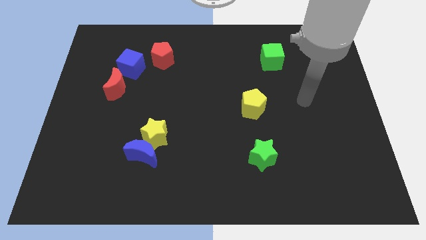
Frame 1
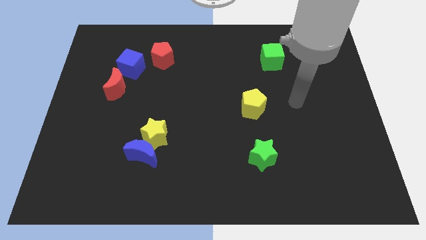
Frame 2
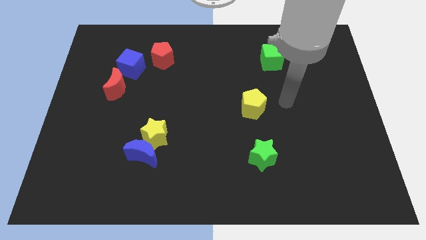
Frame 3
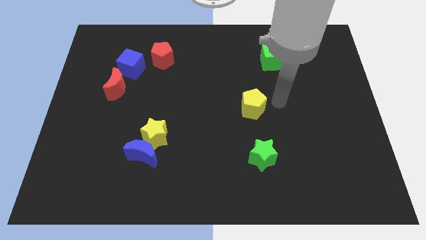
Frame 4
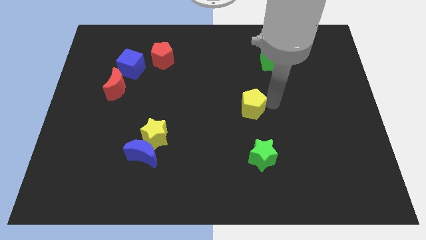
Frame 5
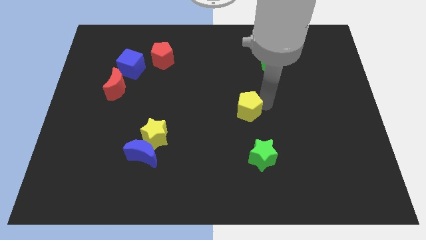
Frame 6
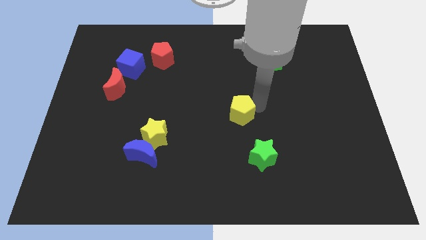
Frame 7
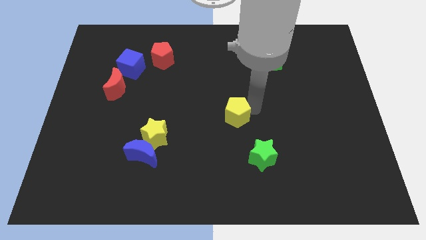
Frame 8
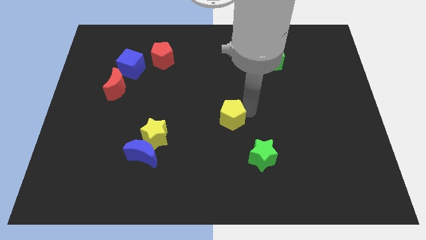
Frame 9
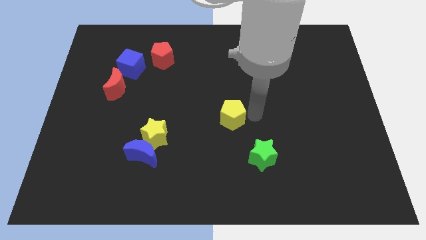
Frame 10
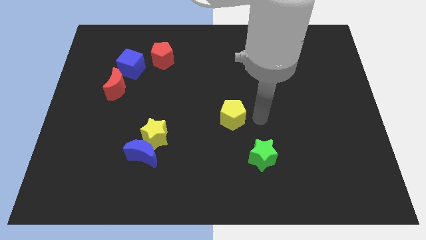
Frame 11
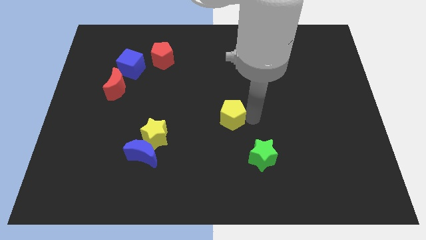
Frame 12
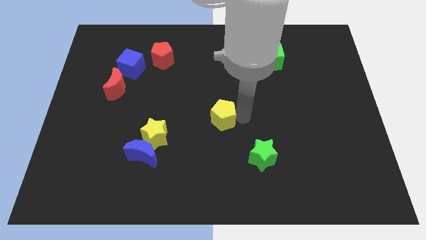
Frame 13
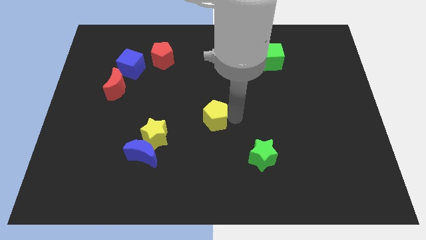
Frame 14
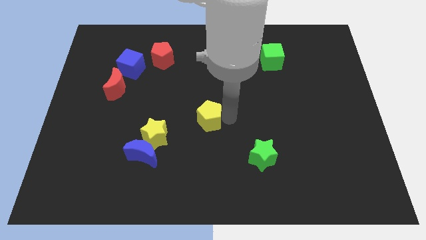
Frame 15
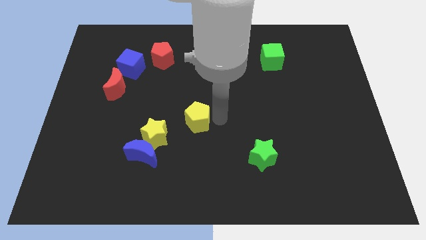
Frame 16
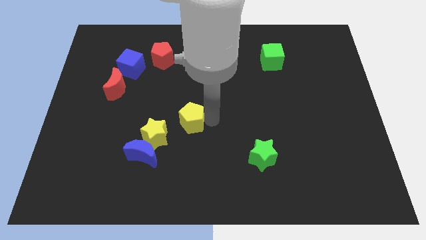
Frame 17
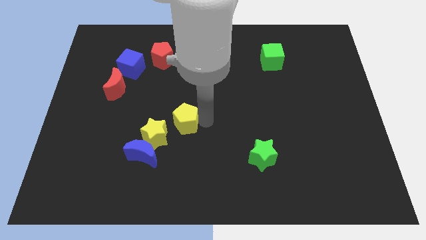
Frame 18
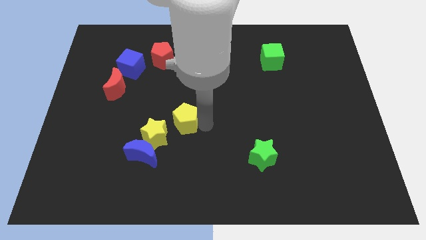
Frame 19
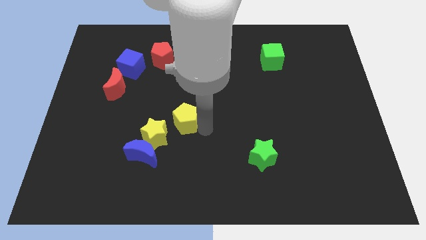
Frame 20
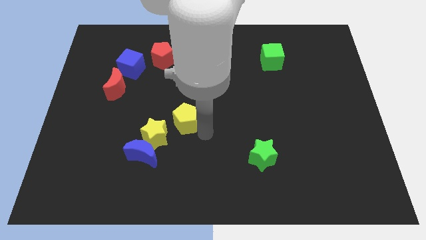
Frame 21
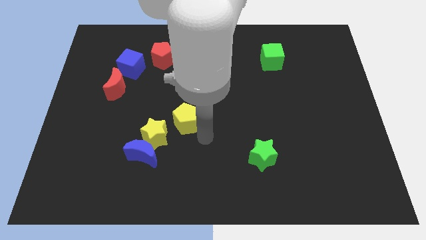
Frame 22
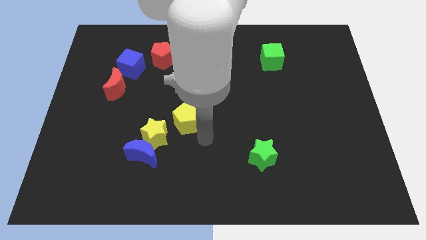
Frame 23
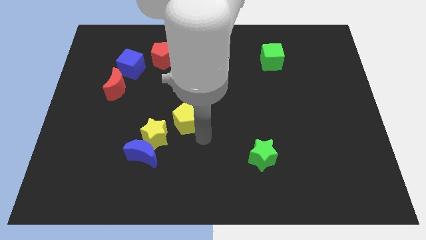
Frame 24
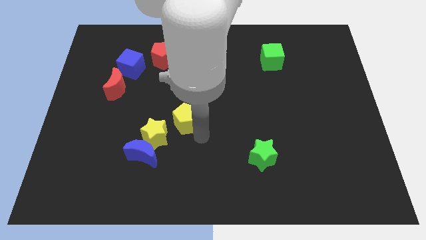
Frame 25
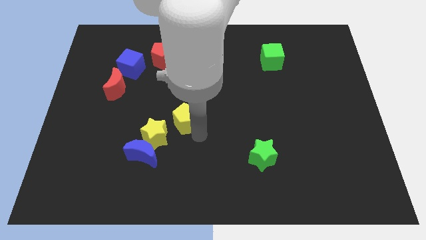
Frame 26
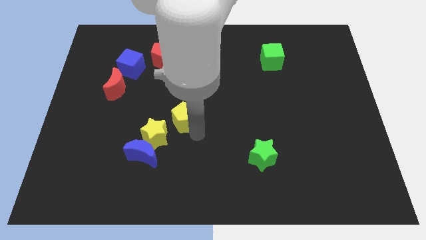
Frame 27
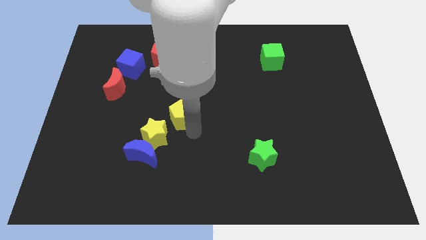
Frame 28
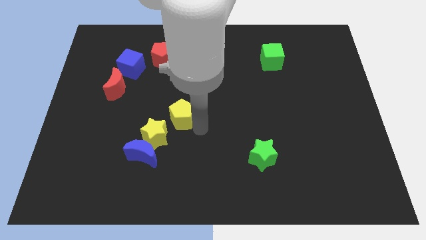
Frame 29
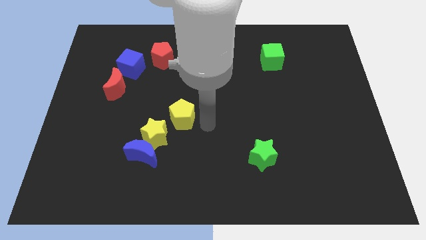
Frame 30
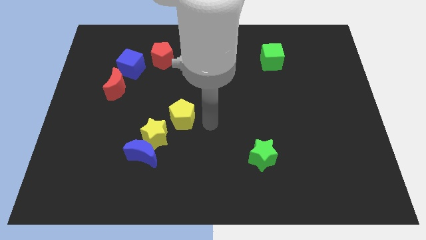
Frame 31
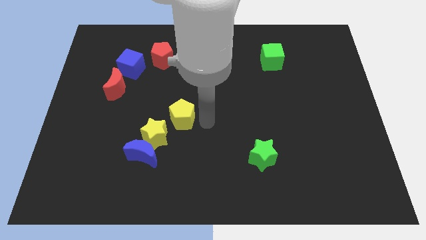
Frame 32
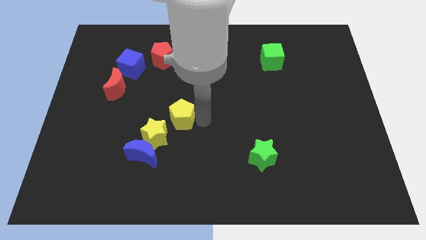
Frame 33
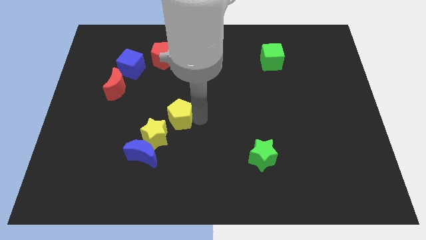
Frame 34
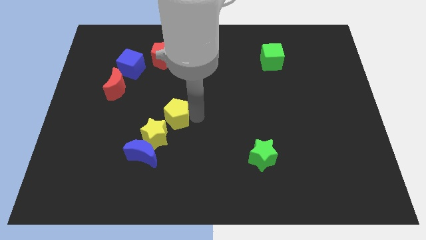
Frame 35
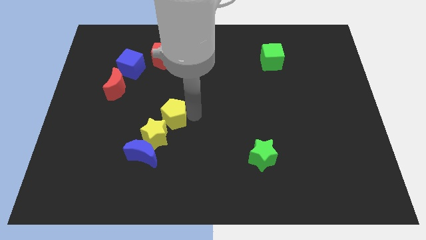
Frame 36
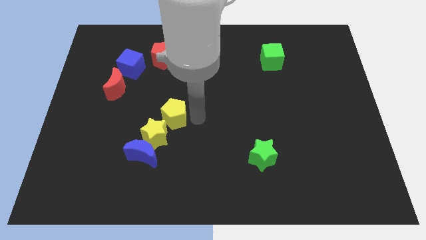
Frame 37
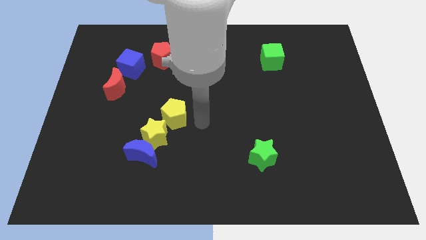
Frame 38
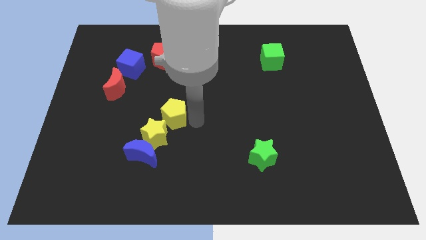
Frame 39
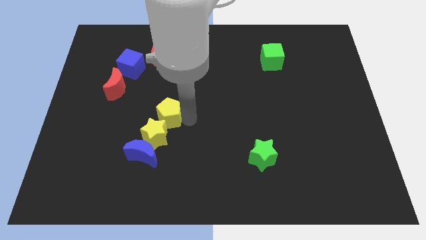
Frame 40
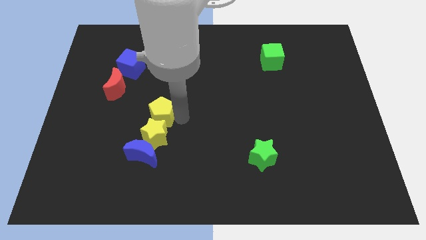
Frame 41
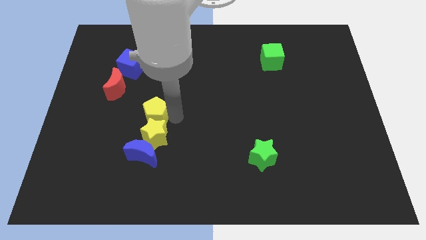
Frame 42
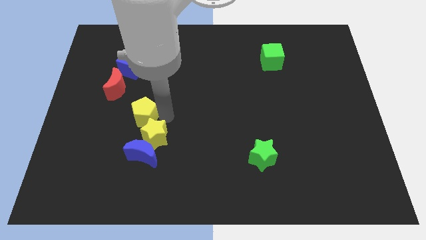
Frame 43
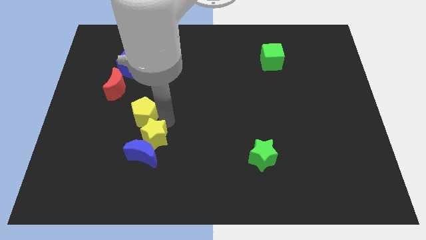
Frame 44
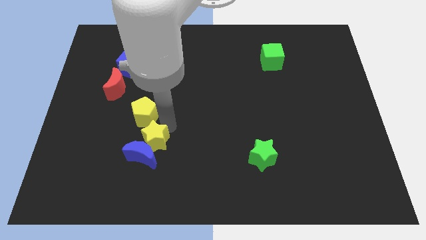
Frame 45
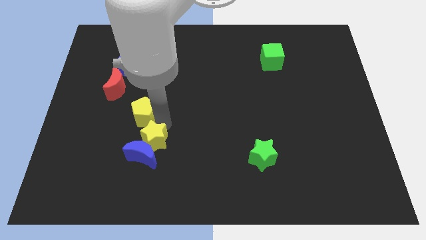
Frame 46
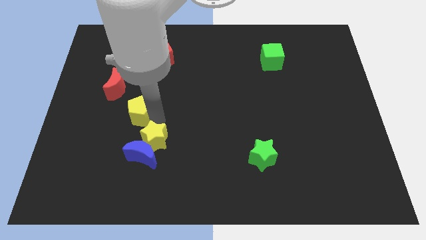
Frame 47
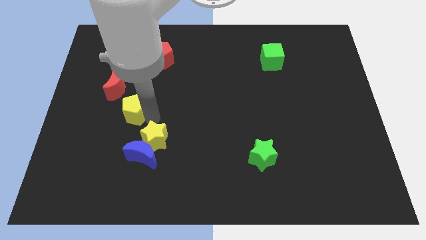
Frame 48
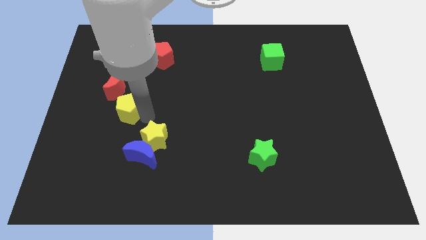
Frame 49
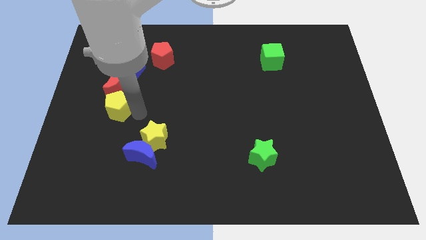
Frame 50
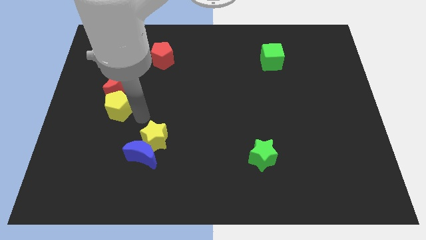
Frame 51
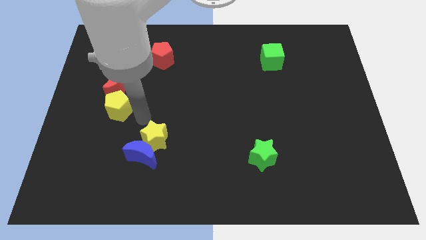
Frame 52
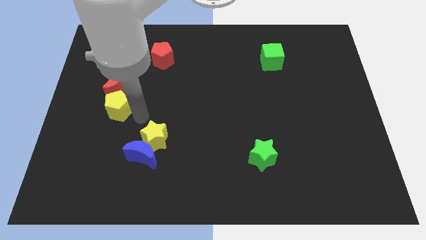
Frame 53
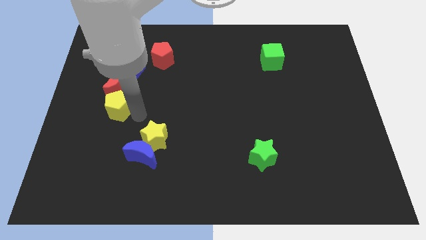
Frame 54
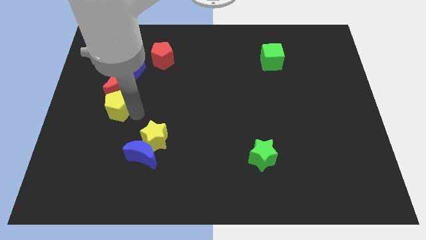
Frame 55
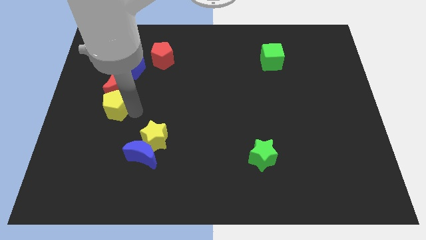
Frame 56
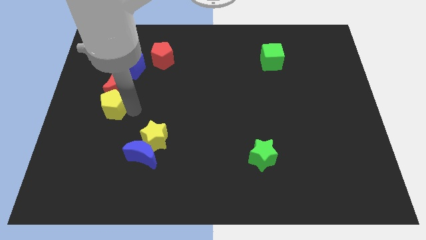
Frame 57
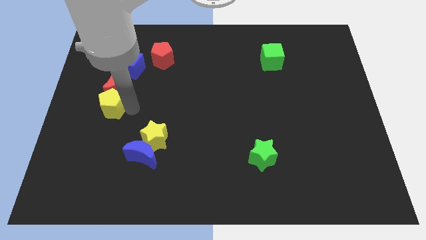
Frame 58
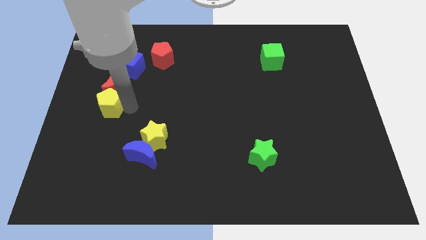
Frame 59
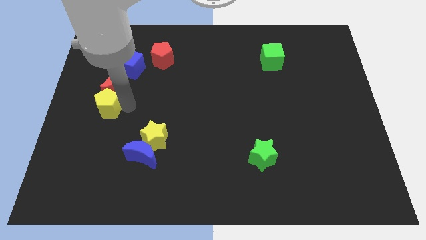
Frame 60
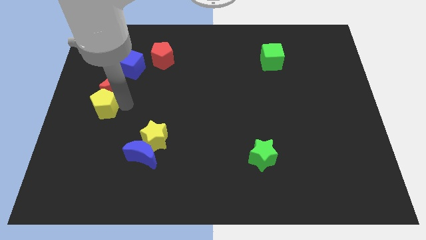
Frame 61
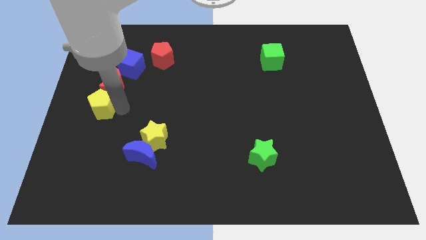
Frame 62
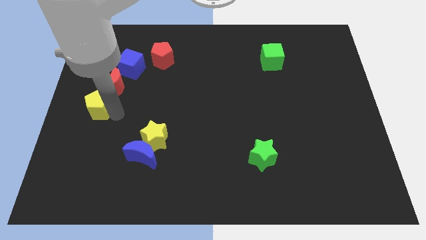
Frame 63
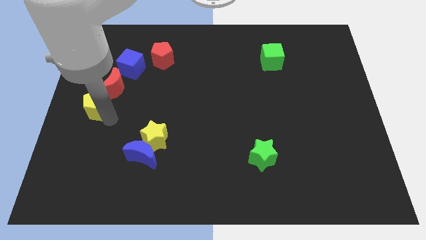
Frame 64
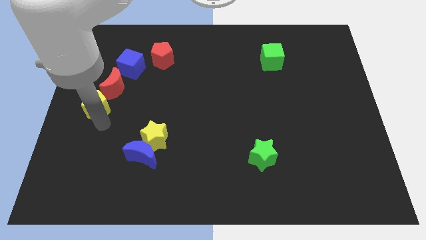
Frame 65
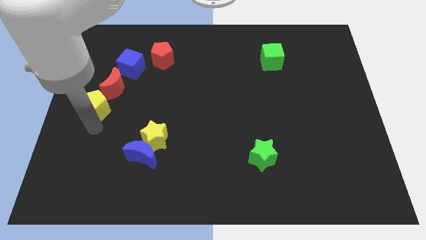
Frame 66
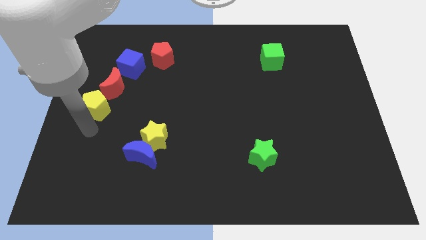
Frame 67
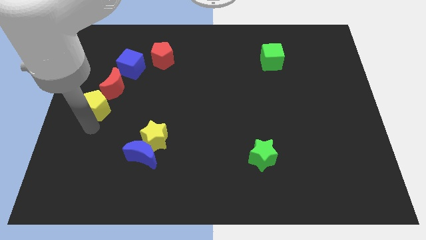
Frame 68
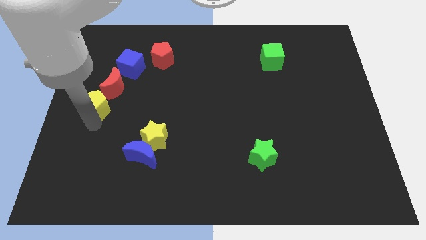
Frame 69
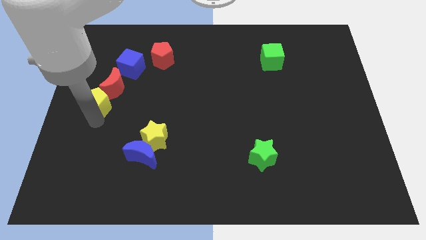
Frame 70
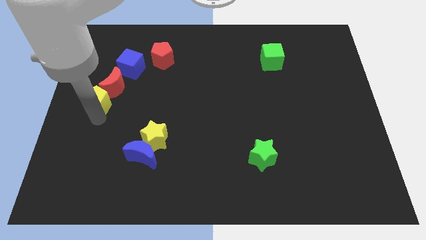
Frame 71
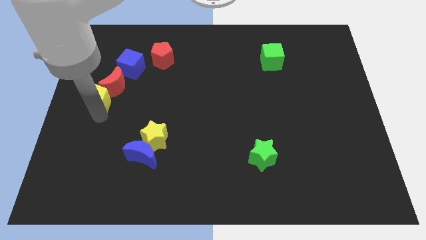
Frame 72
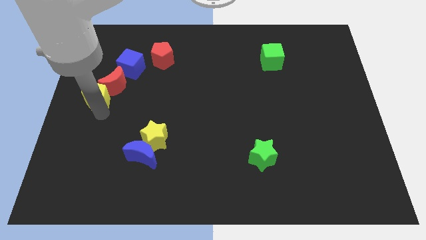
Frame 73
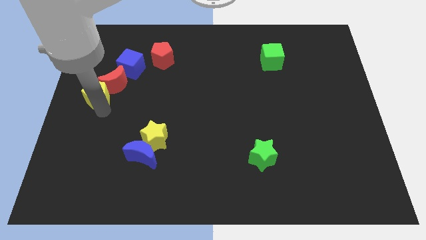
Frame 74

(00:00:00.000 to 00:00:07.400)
move the yellow pentagon to the bottom left of the blue cube
